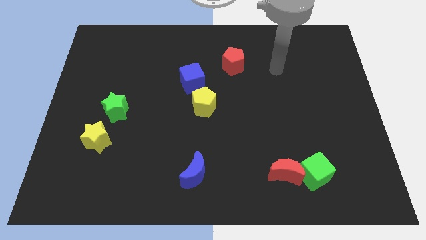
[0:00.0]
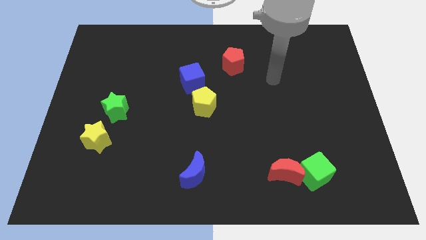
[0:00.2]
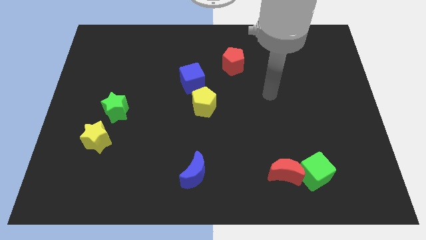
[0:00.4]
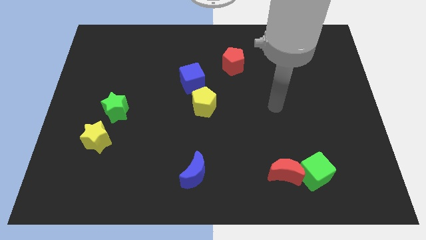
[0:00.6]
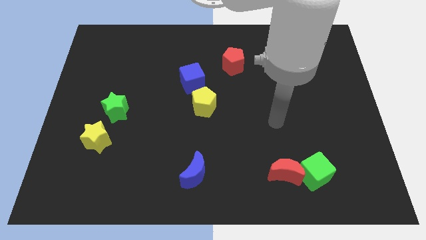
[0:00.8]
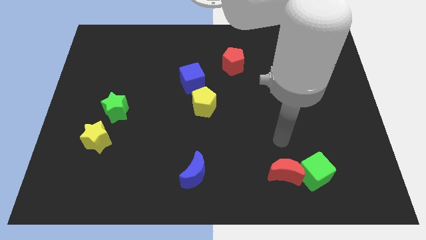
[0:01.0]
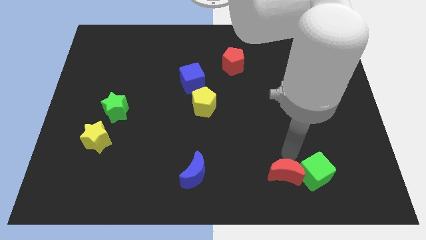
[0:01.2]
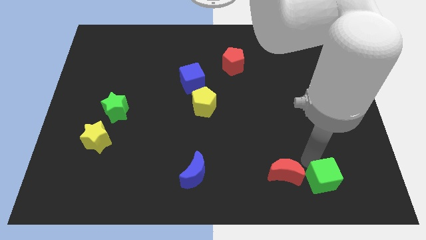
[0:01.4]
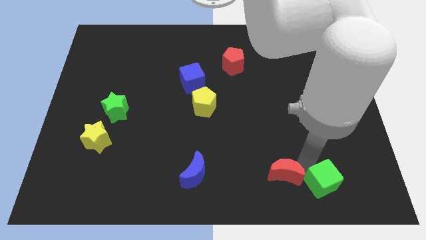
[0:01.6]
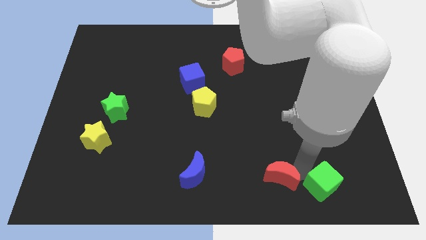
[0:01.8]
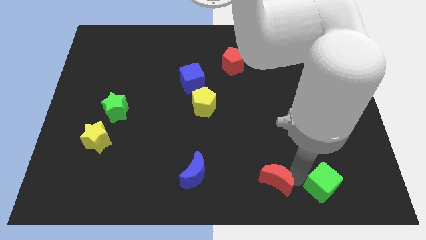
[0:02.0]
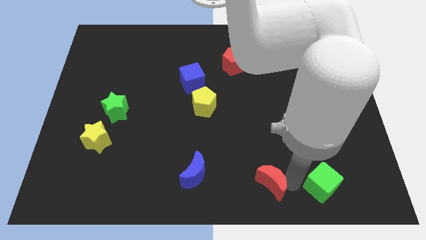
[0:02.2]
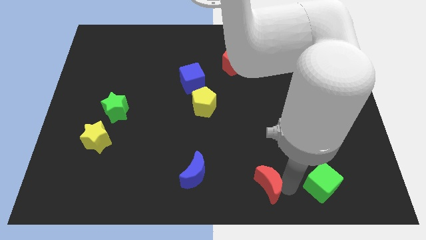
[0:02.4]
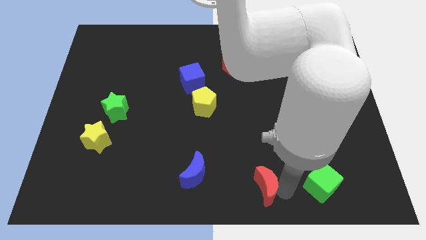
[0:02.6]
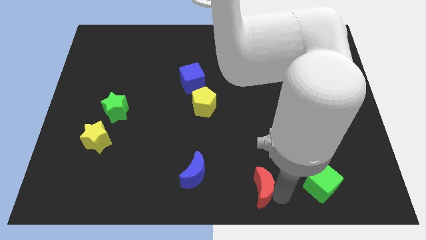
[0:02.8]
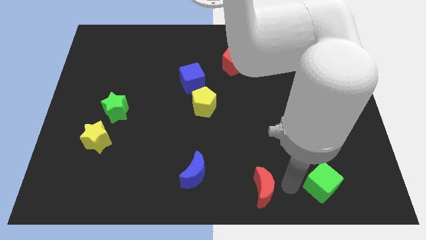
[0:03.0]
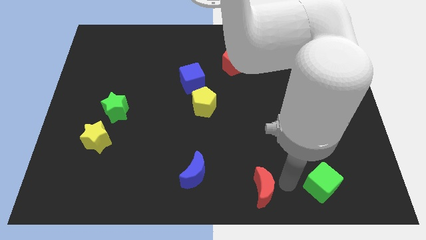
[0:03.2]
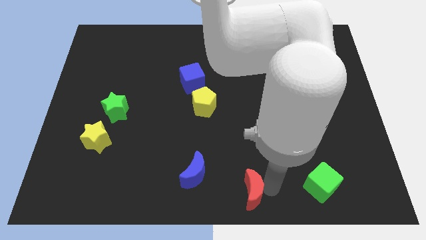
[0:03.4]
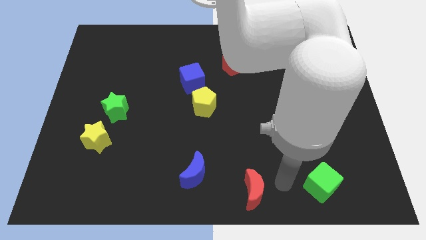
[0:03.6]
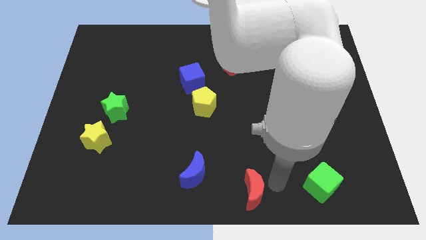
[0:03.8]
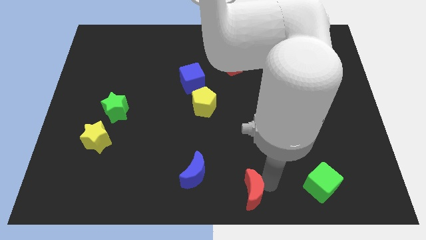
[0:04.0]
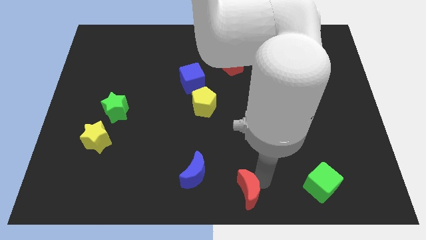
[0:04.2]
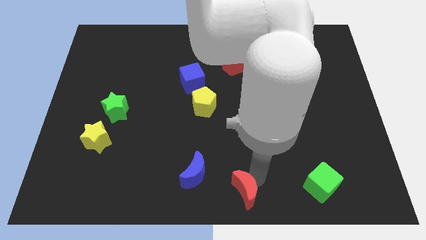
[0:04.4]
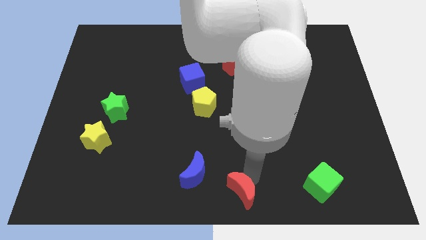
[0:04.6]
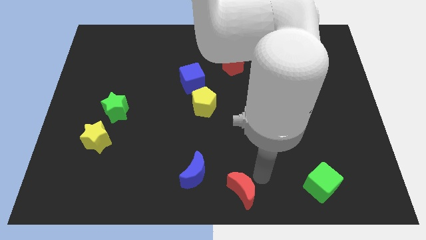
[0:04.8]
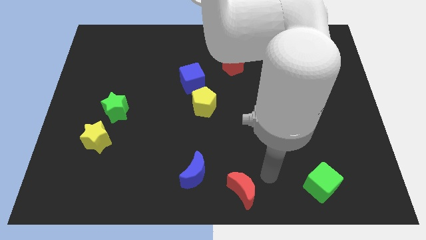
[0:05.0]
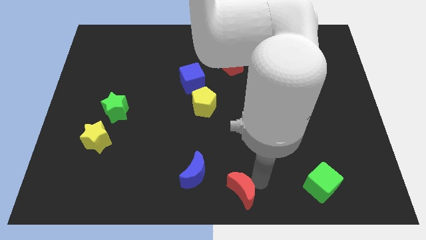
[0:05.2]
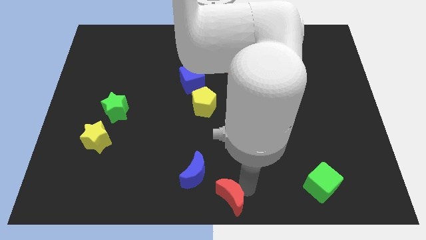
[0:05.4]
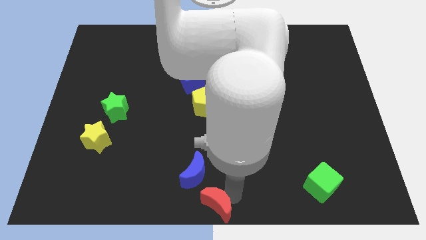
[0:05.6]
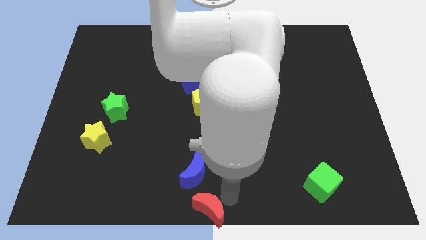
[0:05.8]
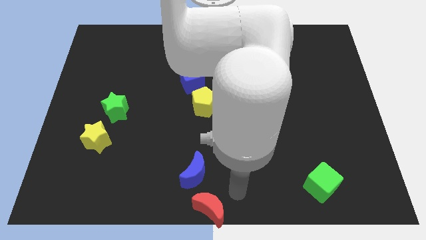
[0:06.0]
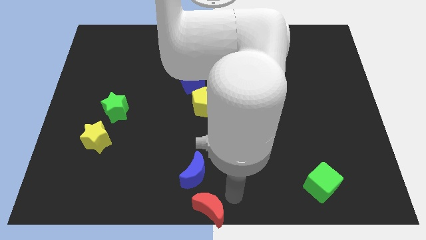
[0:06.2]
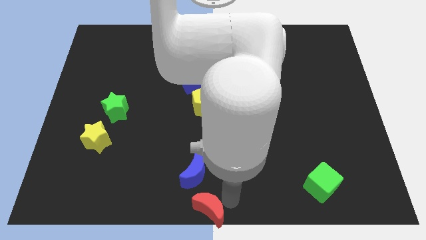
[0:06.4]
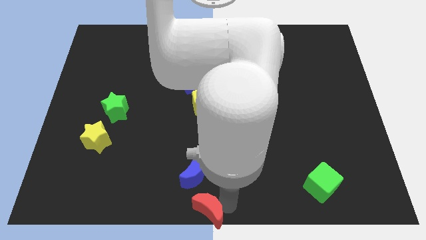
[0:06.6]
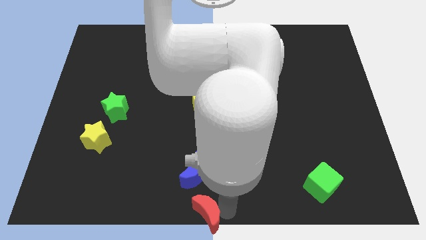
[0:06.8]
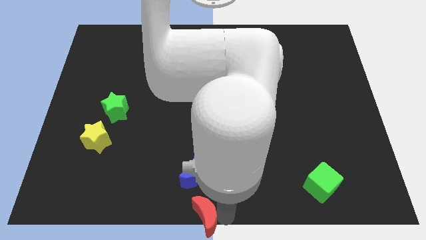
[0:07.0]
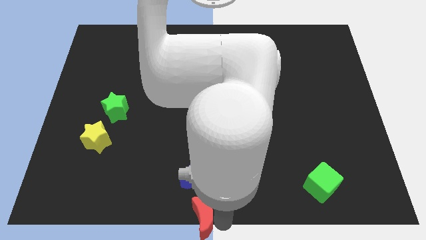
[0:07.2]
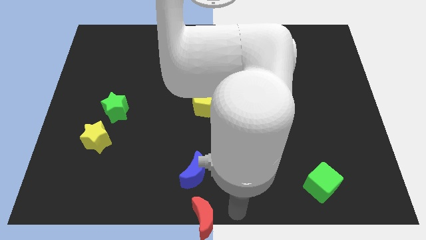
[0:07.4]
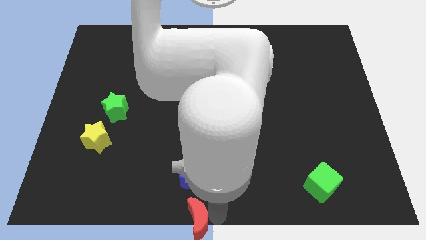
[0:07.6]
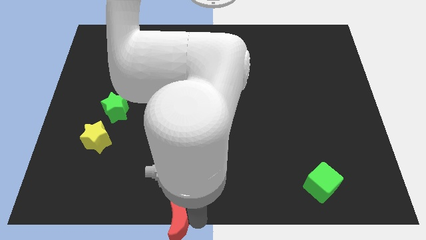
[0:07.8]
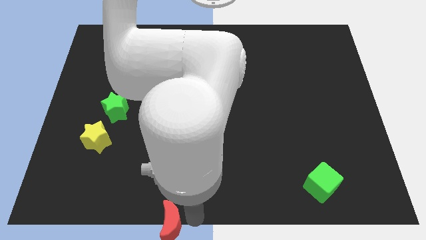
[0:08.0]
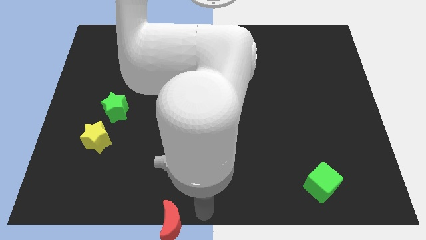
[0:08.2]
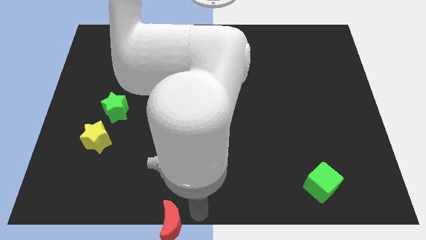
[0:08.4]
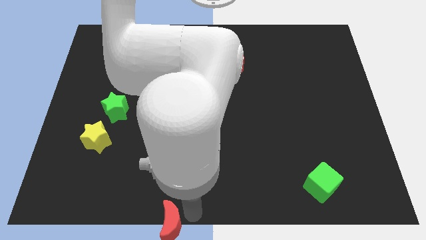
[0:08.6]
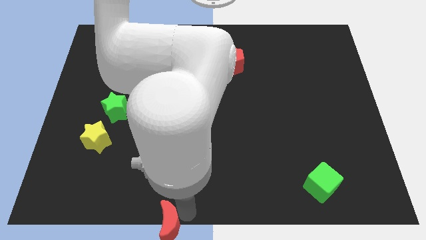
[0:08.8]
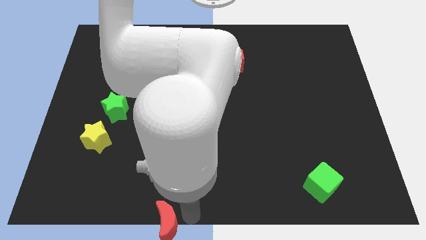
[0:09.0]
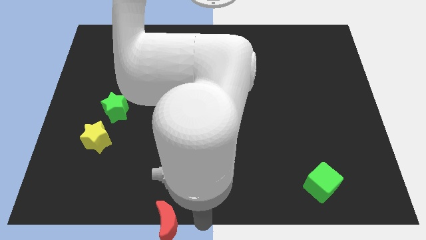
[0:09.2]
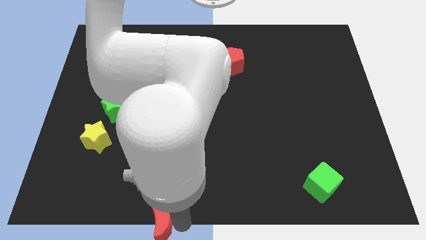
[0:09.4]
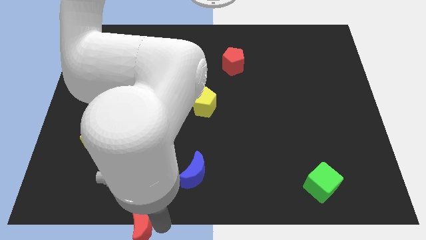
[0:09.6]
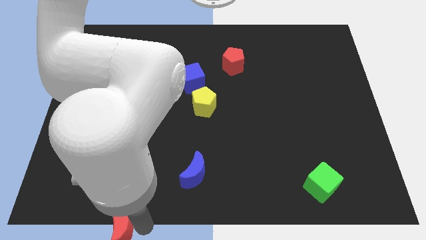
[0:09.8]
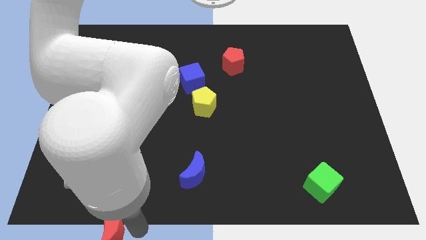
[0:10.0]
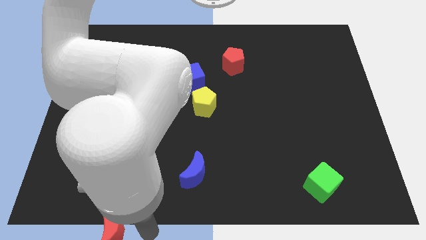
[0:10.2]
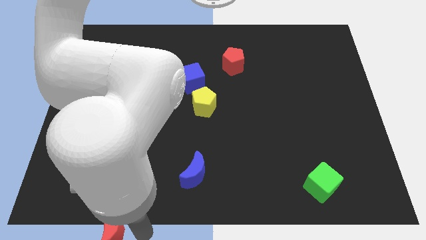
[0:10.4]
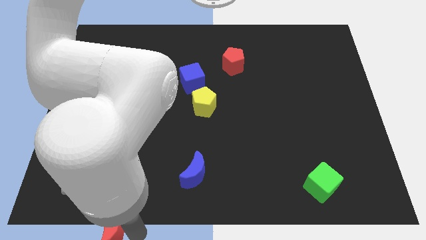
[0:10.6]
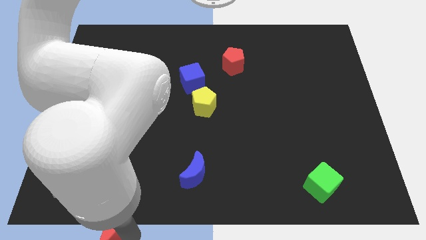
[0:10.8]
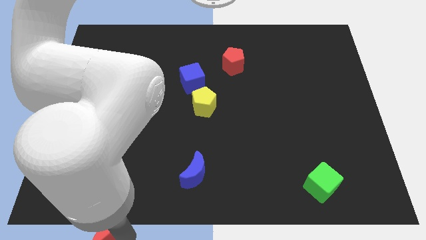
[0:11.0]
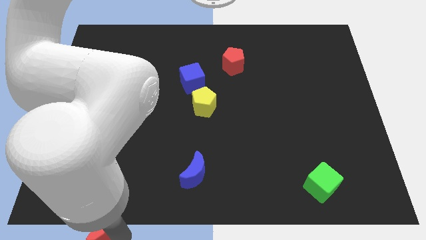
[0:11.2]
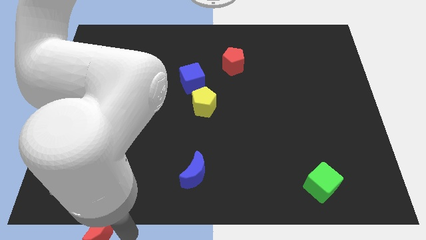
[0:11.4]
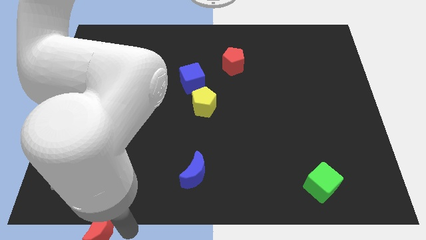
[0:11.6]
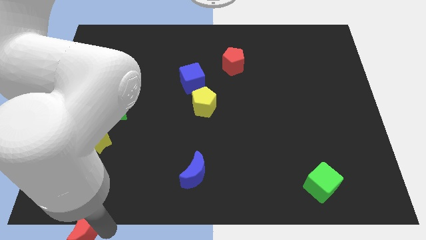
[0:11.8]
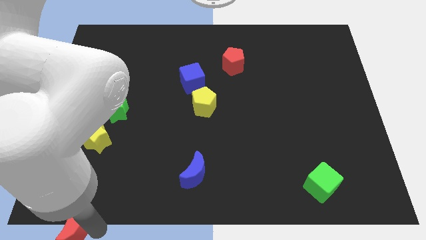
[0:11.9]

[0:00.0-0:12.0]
move the red moon to the bottom left
